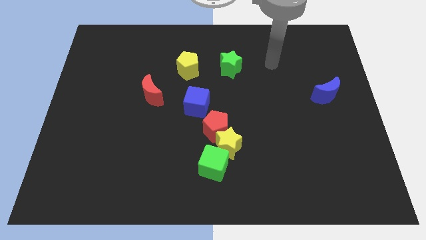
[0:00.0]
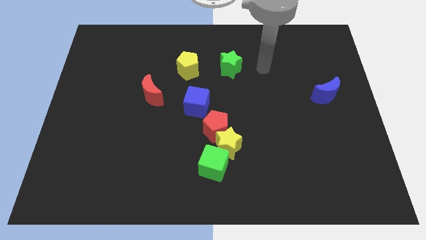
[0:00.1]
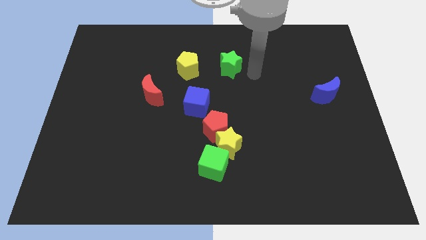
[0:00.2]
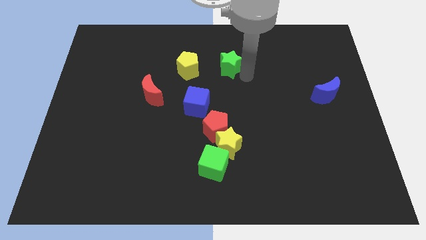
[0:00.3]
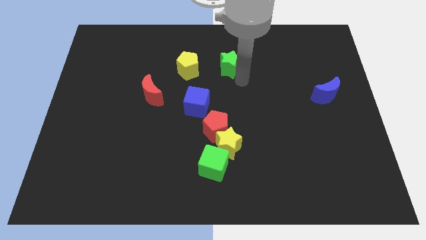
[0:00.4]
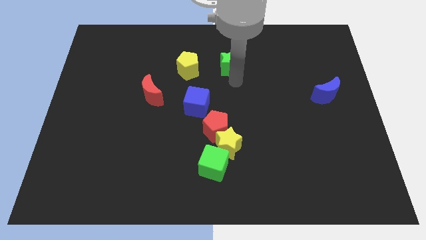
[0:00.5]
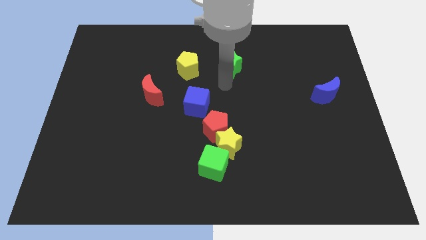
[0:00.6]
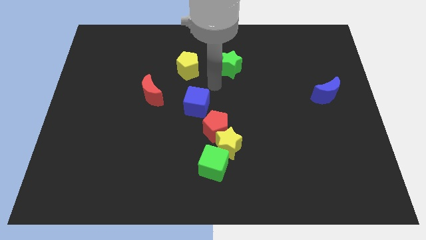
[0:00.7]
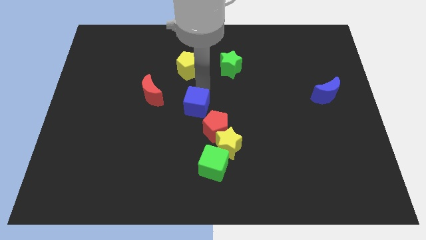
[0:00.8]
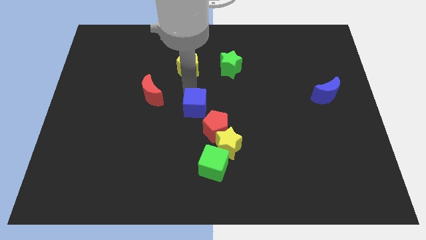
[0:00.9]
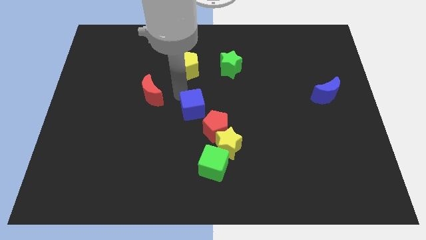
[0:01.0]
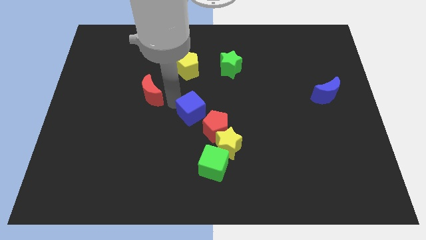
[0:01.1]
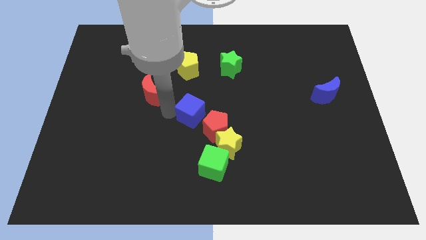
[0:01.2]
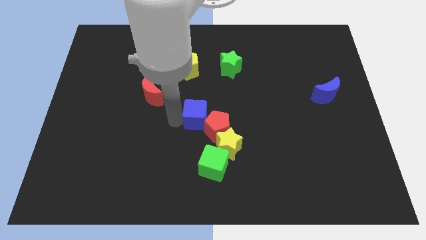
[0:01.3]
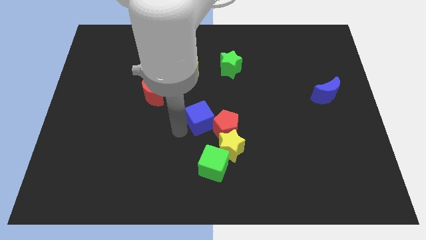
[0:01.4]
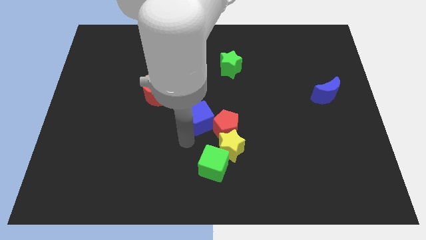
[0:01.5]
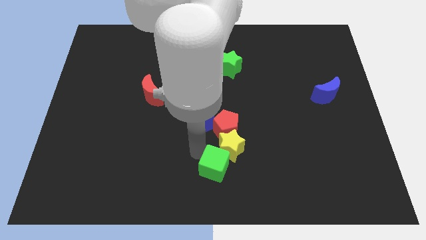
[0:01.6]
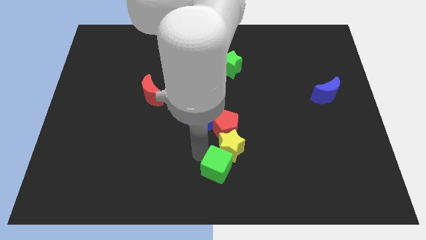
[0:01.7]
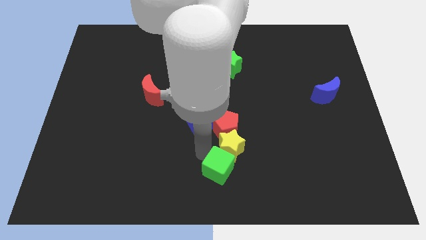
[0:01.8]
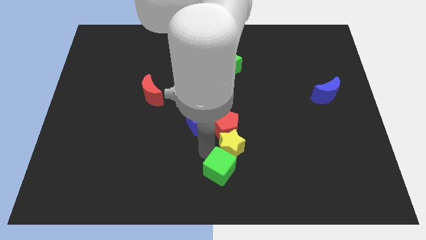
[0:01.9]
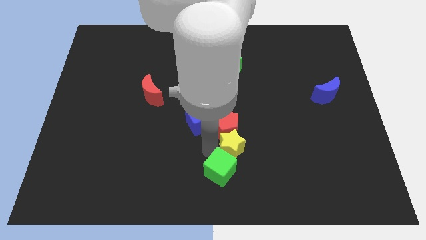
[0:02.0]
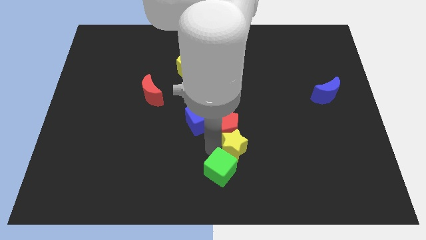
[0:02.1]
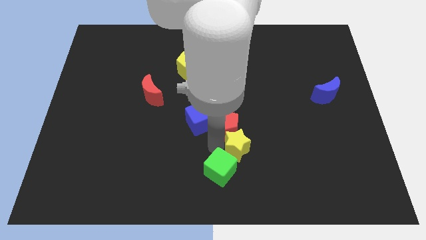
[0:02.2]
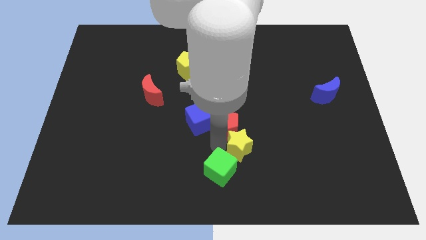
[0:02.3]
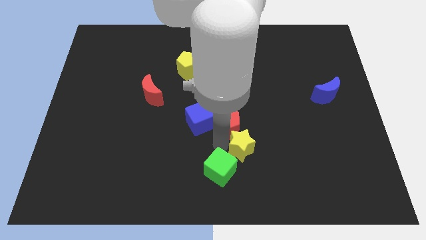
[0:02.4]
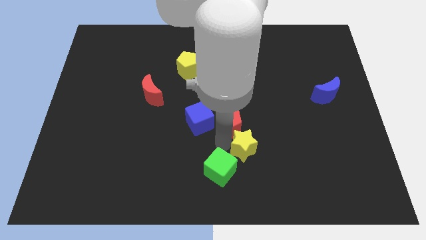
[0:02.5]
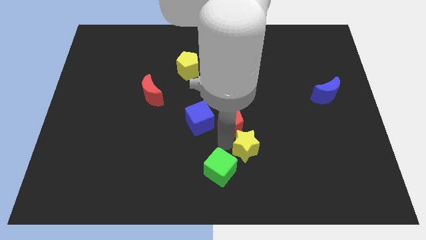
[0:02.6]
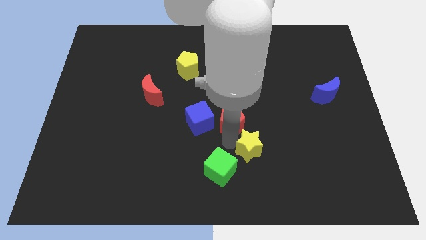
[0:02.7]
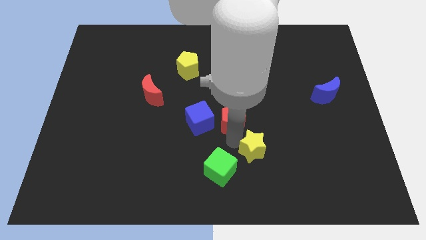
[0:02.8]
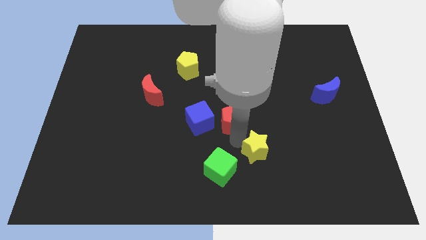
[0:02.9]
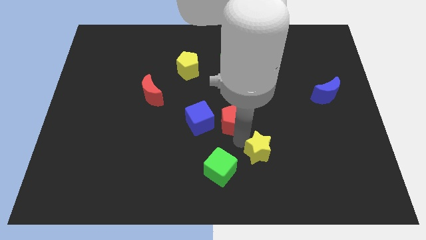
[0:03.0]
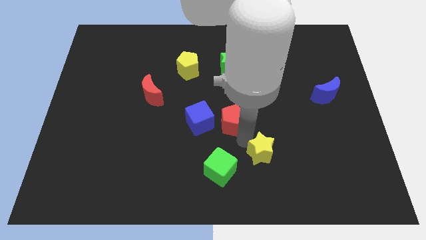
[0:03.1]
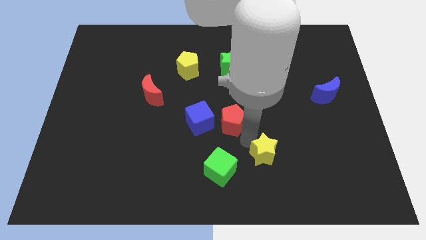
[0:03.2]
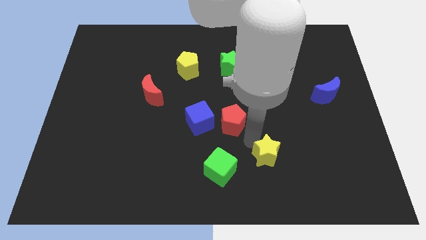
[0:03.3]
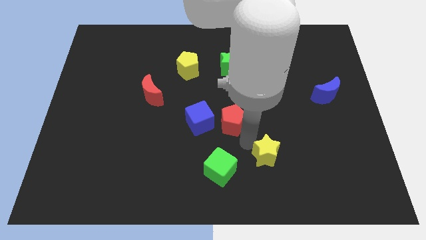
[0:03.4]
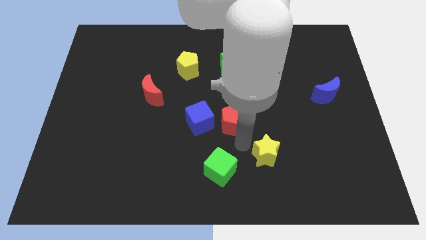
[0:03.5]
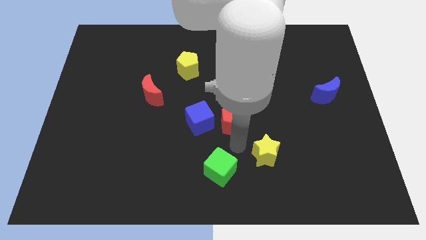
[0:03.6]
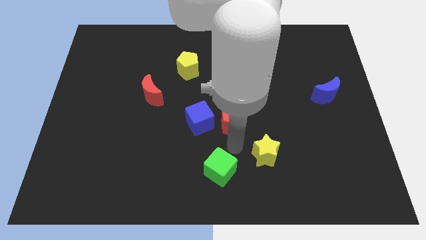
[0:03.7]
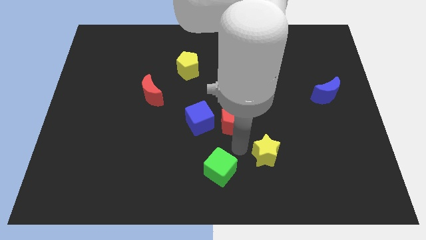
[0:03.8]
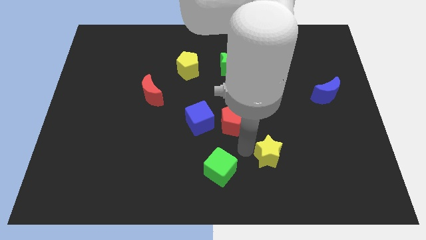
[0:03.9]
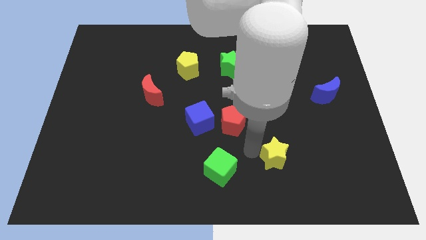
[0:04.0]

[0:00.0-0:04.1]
move the yellow star away from the red pentagon and green cube

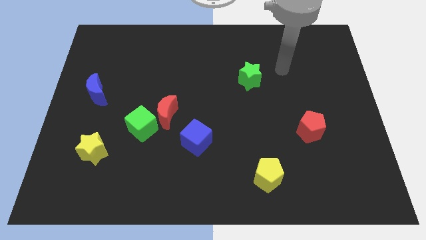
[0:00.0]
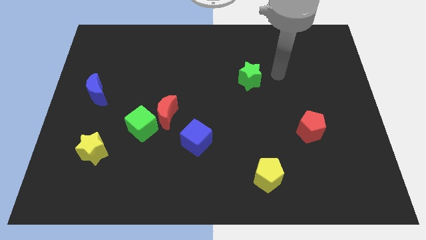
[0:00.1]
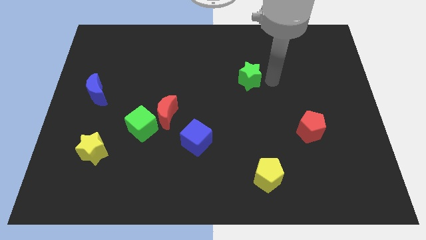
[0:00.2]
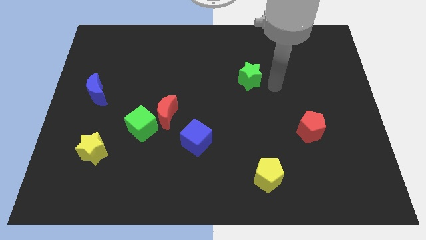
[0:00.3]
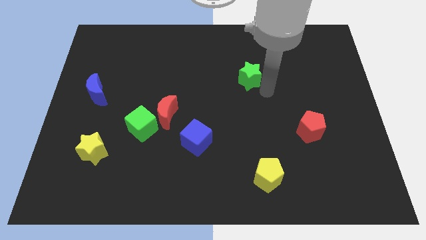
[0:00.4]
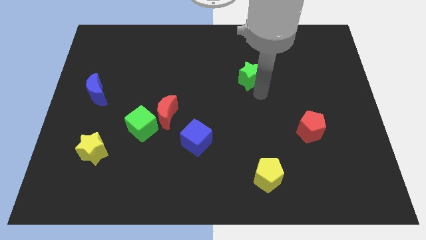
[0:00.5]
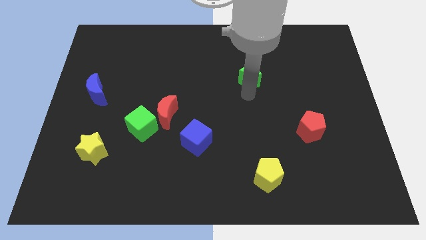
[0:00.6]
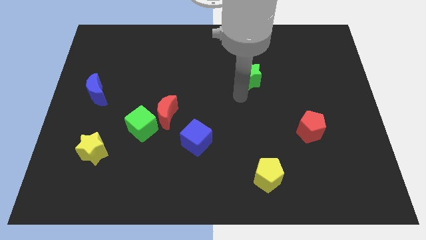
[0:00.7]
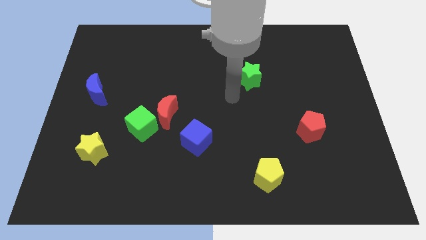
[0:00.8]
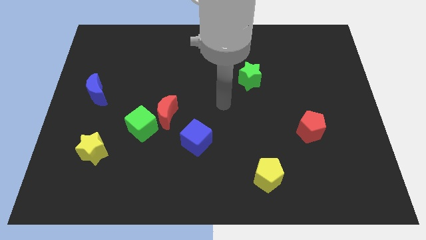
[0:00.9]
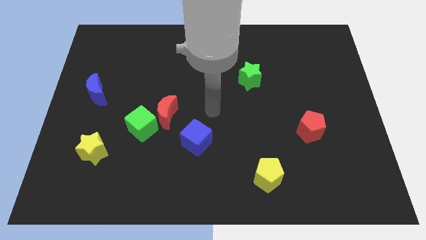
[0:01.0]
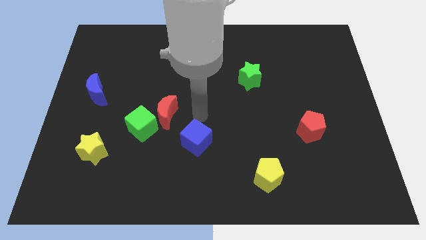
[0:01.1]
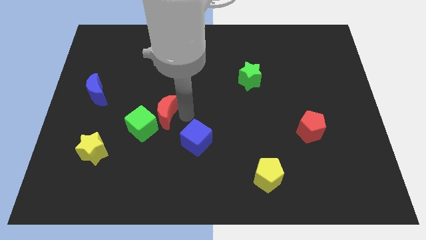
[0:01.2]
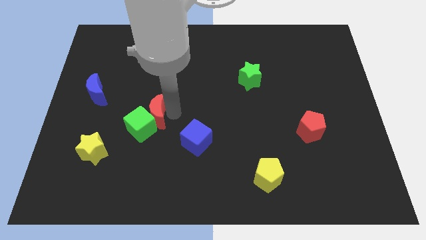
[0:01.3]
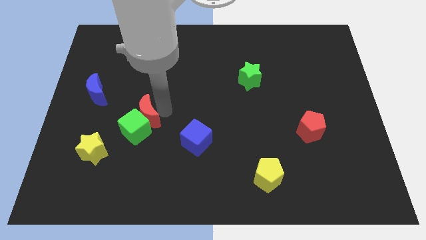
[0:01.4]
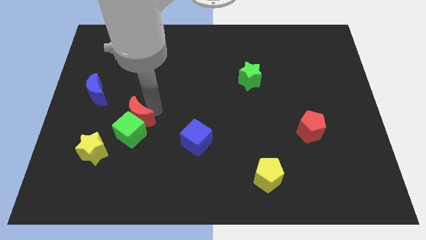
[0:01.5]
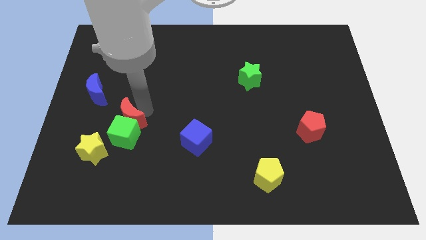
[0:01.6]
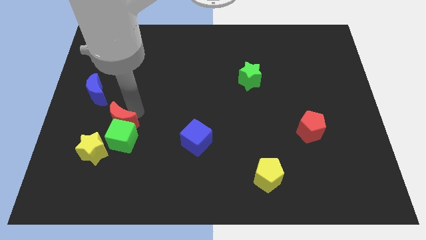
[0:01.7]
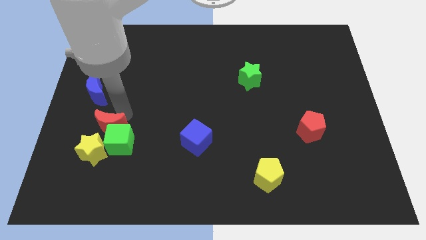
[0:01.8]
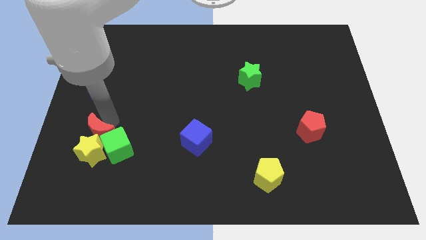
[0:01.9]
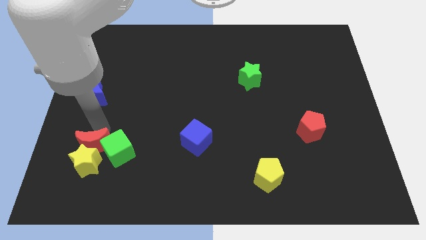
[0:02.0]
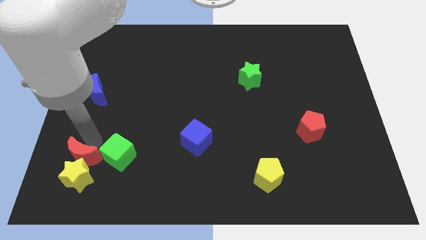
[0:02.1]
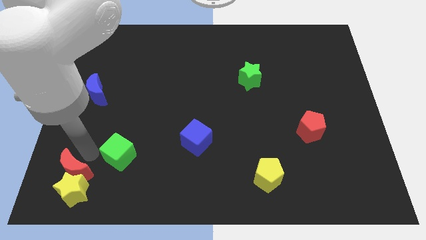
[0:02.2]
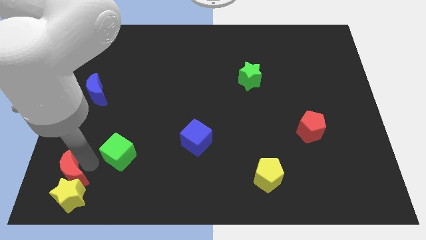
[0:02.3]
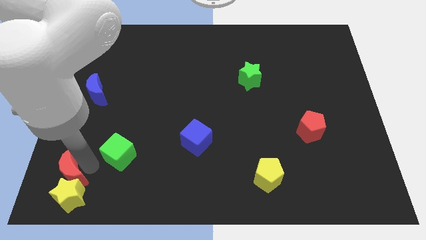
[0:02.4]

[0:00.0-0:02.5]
move the green cube away from the red moon

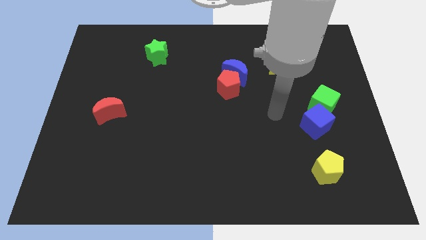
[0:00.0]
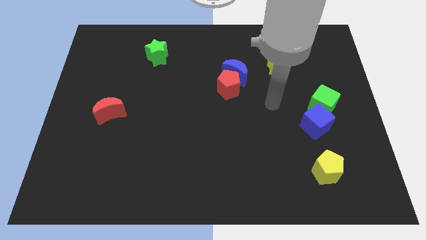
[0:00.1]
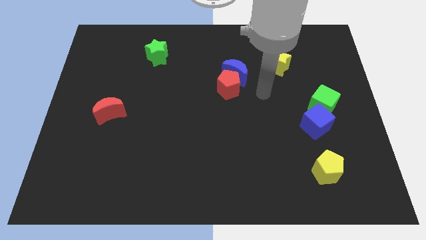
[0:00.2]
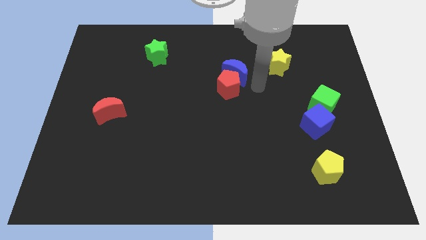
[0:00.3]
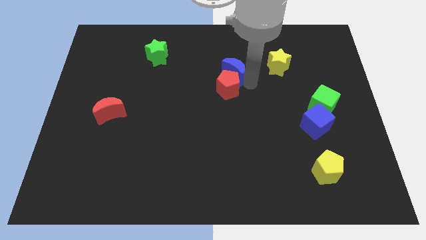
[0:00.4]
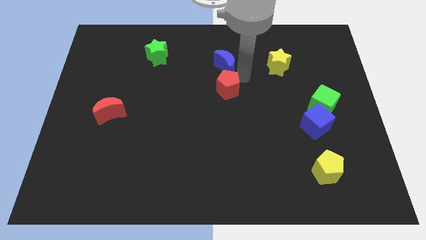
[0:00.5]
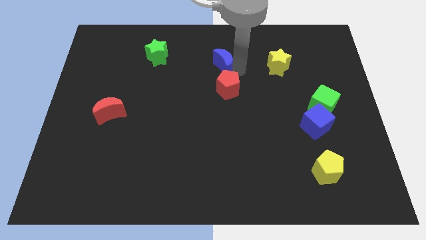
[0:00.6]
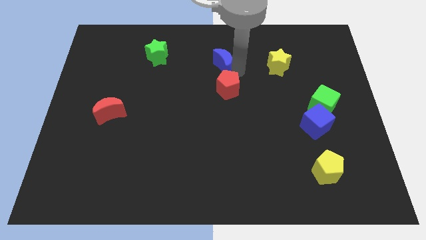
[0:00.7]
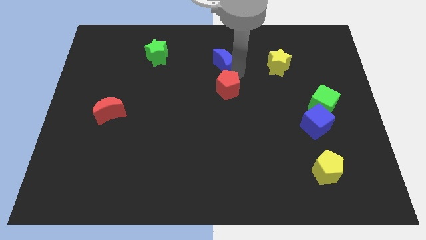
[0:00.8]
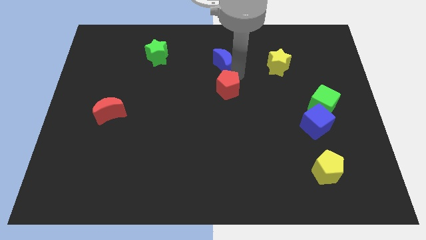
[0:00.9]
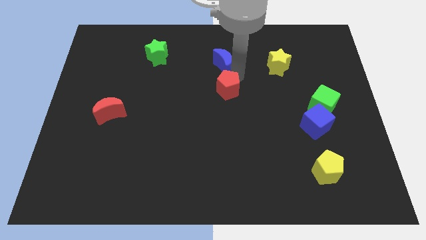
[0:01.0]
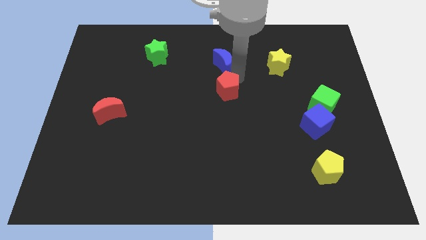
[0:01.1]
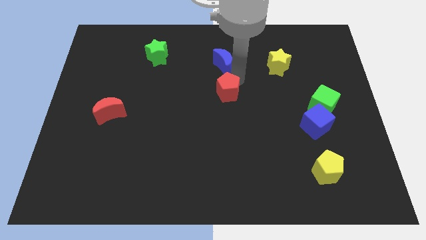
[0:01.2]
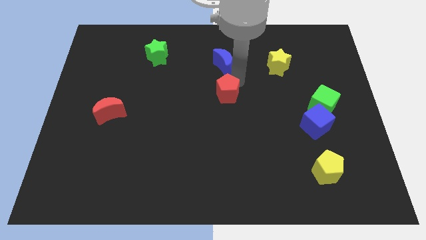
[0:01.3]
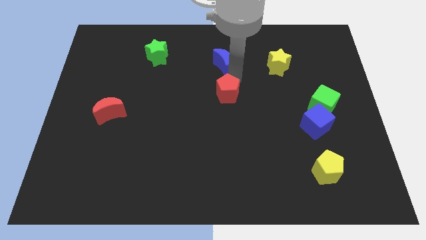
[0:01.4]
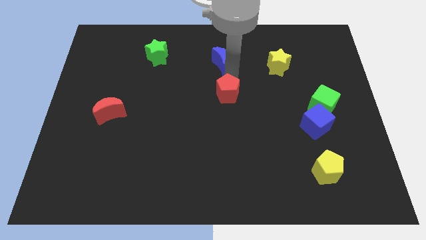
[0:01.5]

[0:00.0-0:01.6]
pull the red pentagon apart from the blue moon

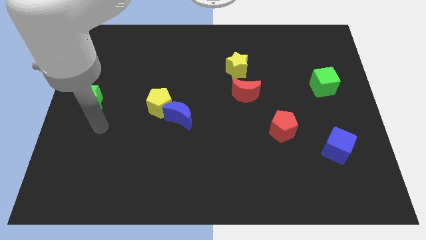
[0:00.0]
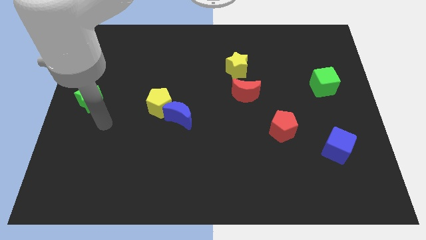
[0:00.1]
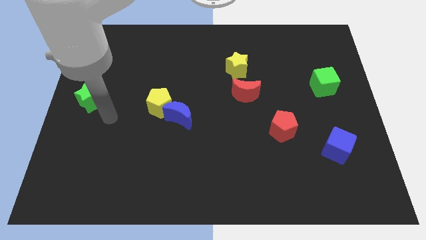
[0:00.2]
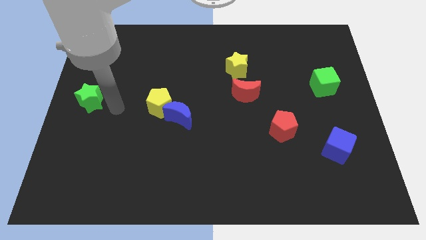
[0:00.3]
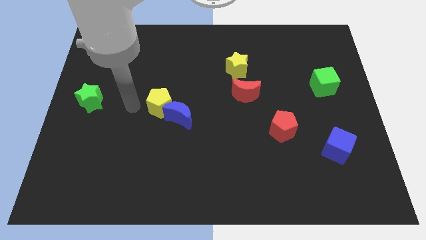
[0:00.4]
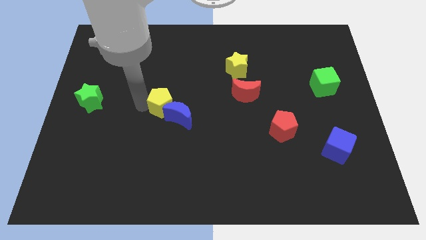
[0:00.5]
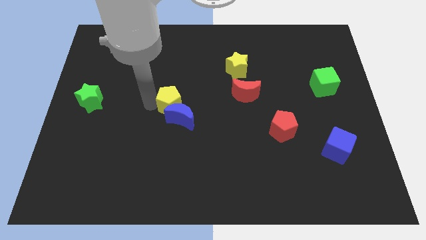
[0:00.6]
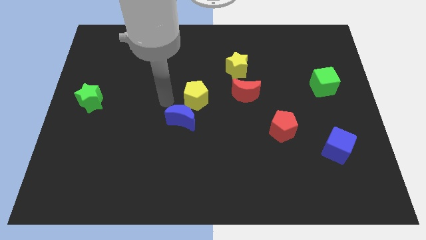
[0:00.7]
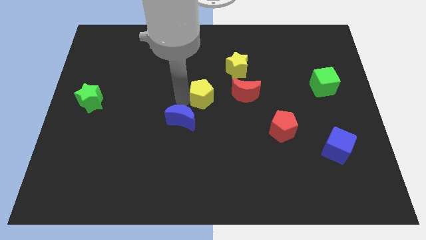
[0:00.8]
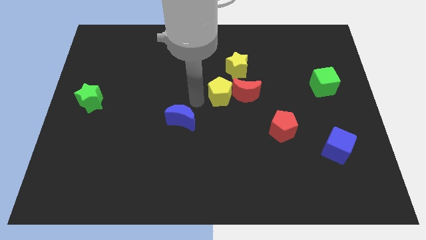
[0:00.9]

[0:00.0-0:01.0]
separate the blue moon from the yellow pentagon

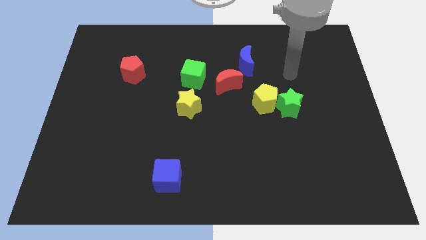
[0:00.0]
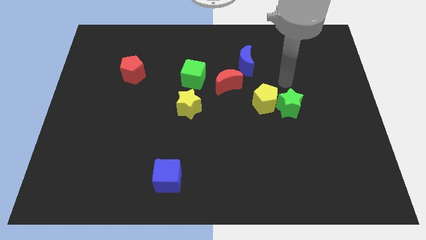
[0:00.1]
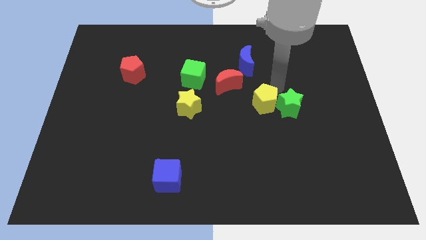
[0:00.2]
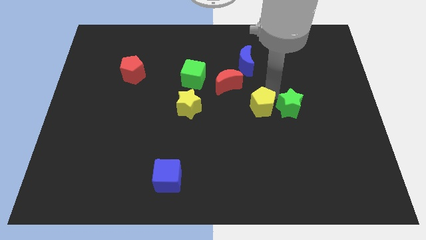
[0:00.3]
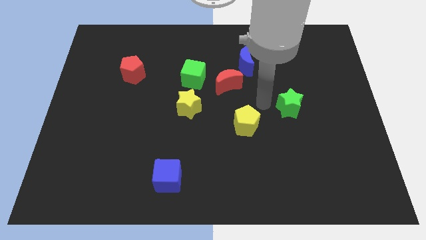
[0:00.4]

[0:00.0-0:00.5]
separate the green star from the yellow pentagon
